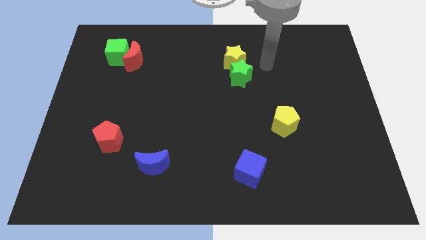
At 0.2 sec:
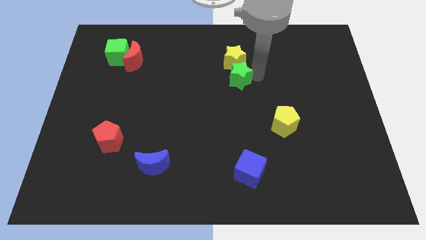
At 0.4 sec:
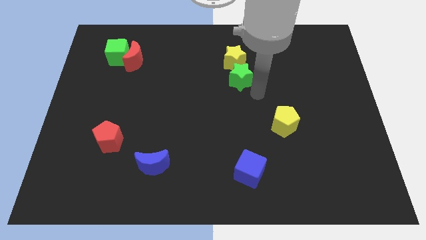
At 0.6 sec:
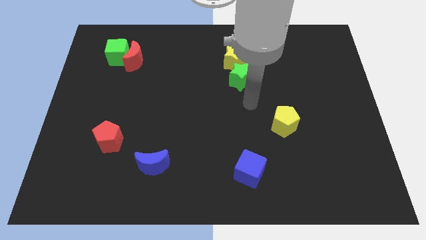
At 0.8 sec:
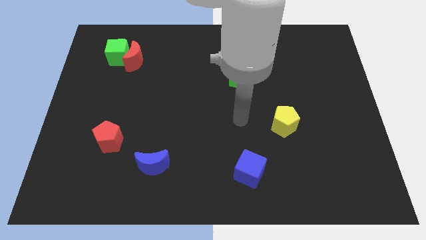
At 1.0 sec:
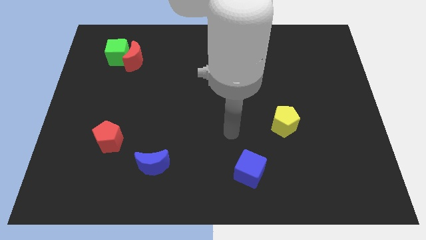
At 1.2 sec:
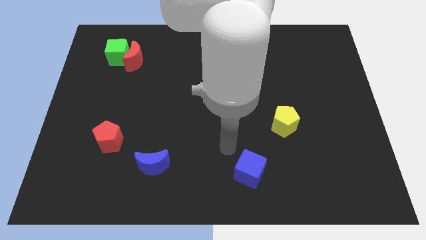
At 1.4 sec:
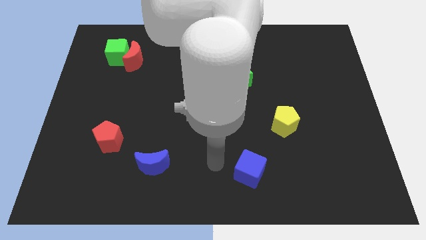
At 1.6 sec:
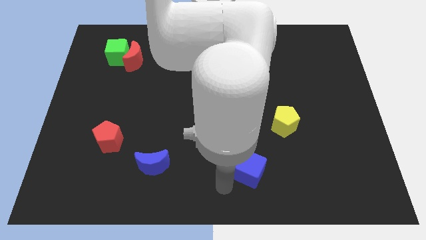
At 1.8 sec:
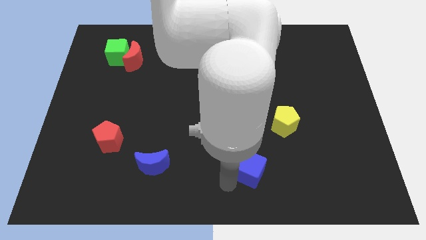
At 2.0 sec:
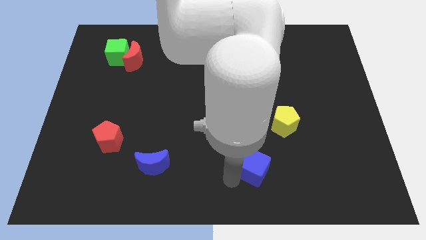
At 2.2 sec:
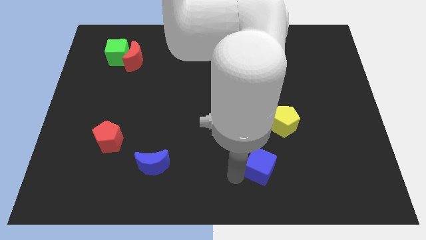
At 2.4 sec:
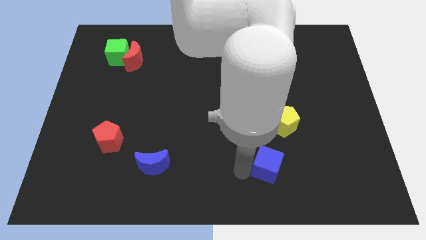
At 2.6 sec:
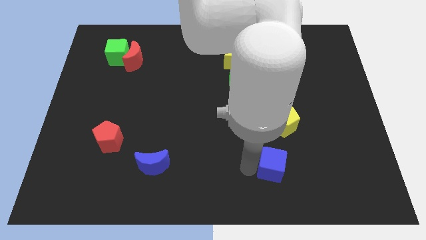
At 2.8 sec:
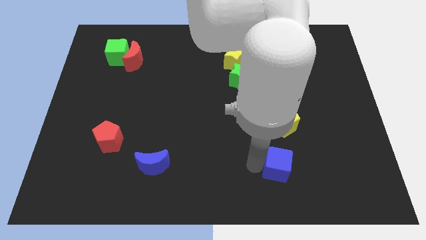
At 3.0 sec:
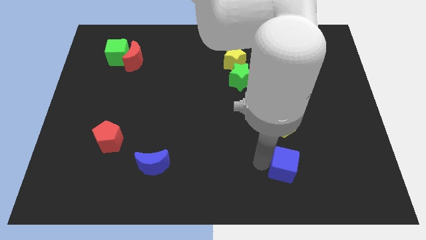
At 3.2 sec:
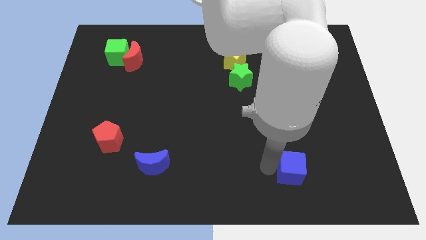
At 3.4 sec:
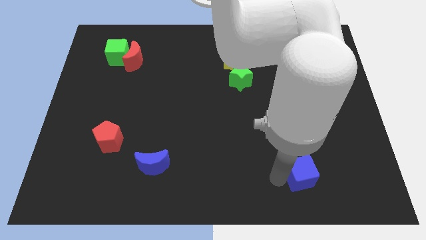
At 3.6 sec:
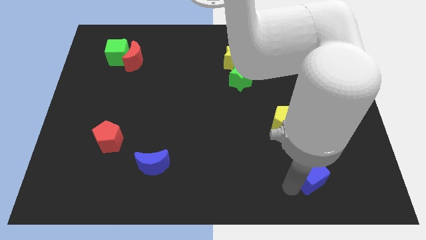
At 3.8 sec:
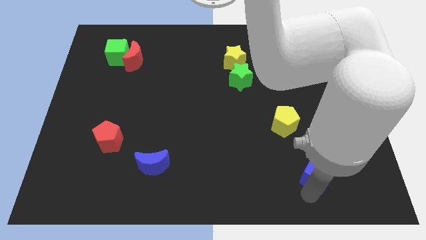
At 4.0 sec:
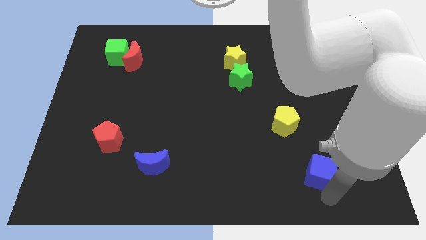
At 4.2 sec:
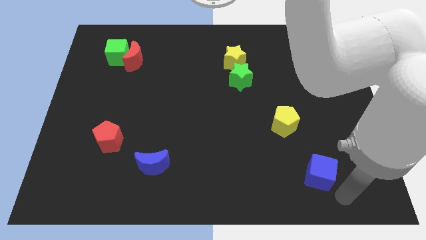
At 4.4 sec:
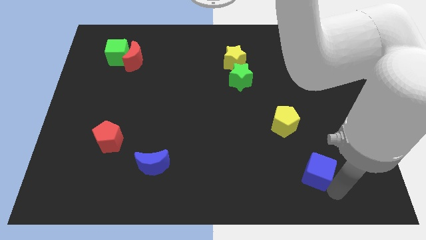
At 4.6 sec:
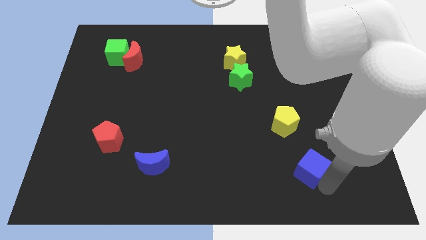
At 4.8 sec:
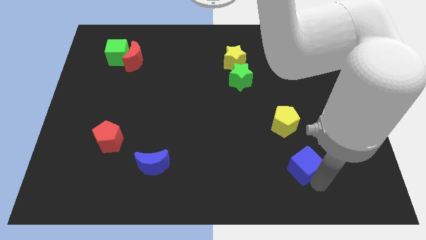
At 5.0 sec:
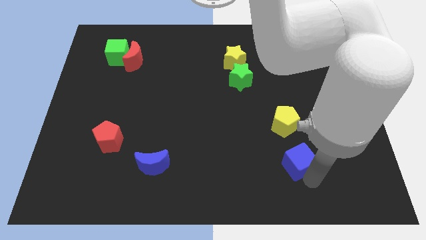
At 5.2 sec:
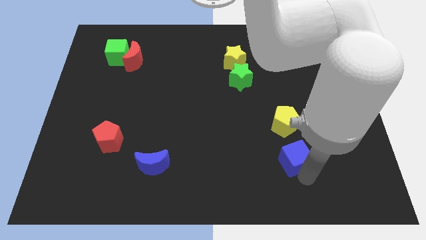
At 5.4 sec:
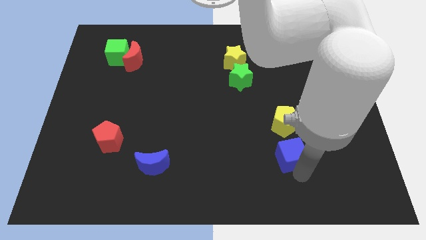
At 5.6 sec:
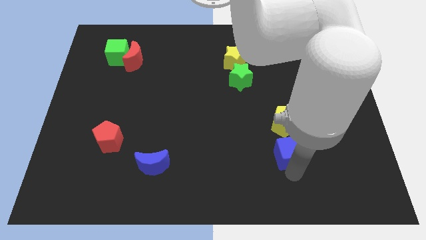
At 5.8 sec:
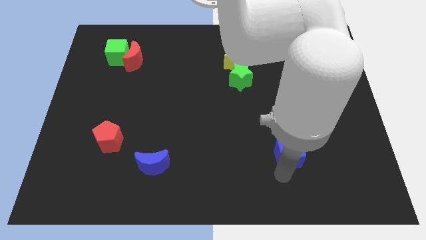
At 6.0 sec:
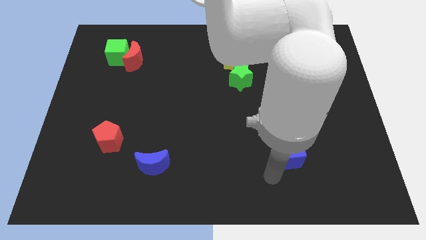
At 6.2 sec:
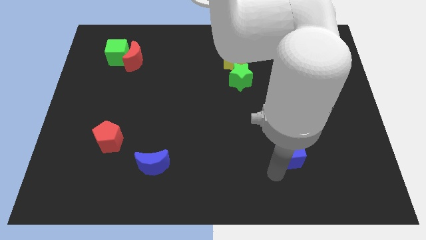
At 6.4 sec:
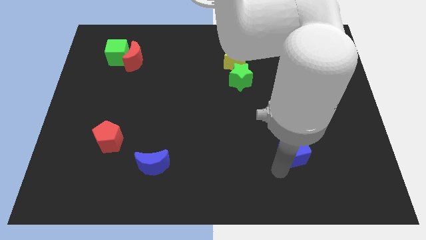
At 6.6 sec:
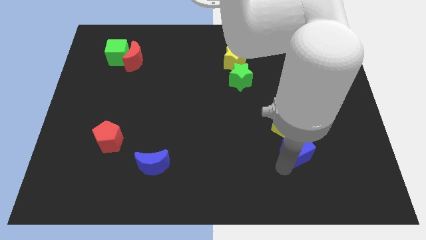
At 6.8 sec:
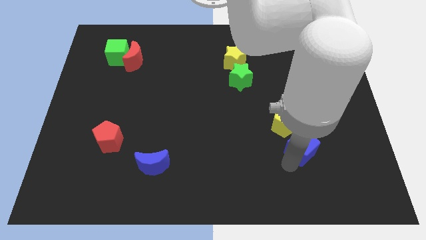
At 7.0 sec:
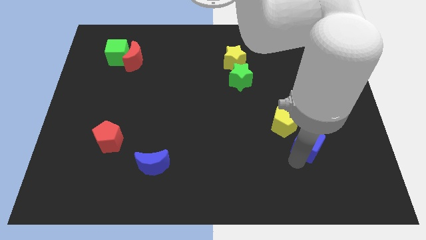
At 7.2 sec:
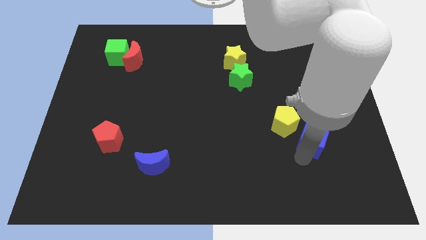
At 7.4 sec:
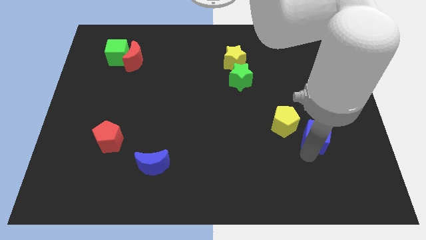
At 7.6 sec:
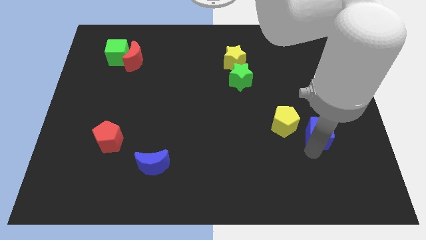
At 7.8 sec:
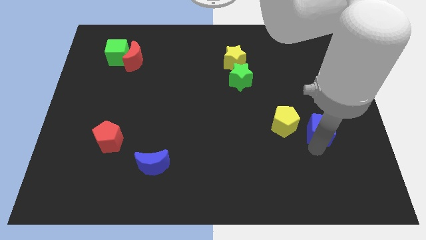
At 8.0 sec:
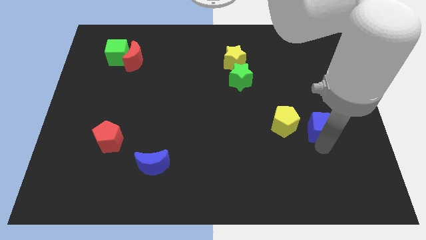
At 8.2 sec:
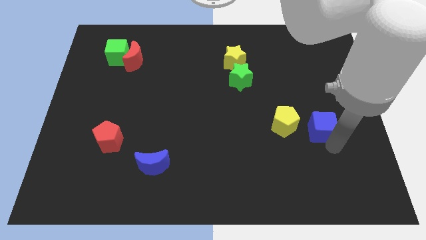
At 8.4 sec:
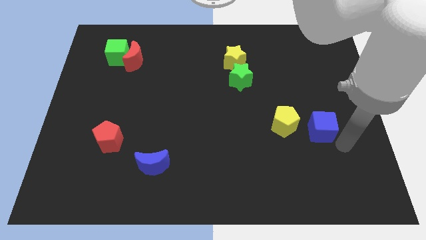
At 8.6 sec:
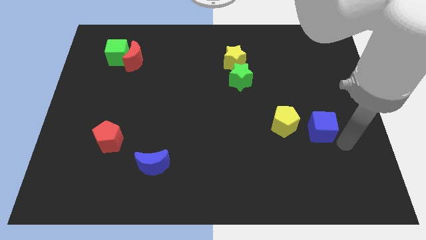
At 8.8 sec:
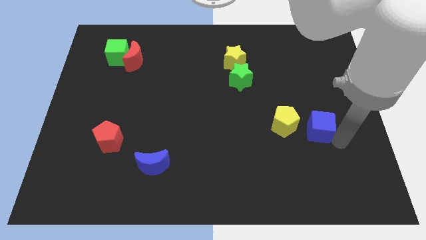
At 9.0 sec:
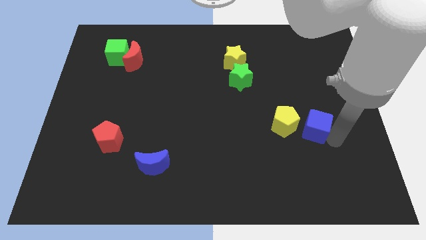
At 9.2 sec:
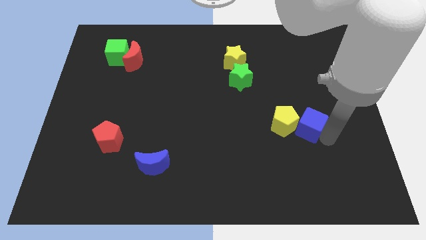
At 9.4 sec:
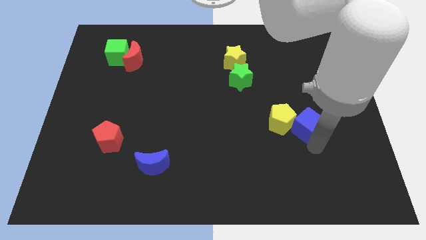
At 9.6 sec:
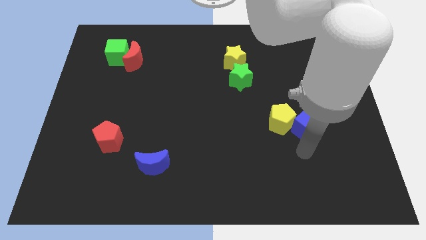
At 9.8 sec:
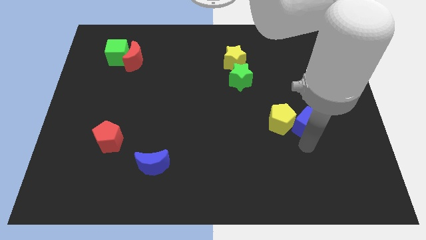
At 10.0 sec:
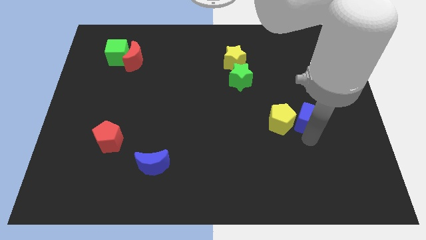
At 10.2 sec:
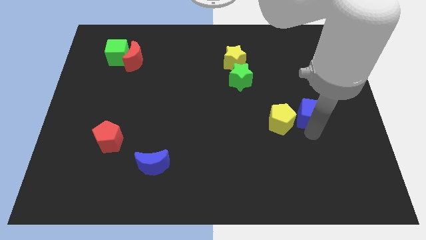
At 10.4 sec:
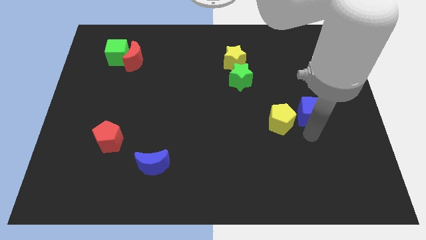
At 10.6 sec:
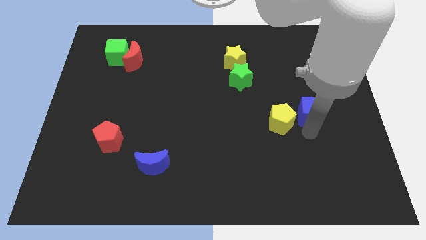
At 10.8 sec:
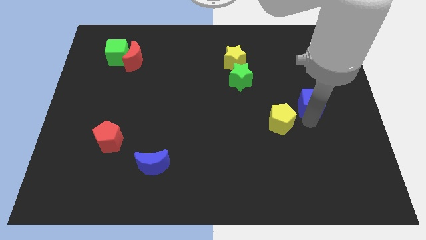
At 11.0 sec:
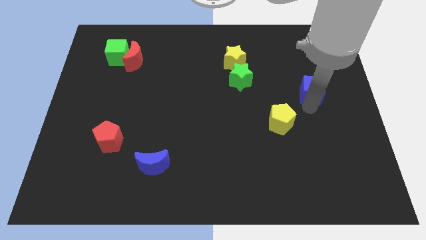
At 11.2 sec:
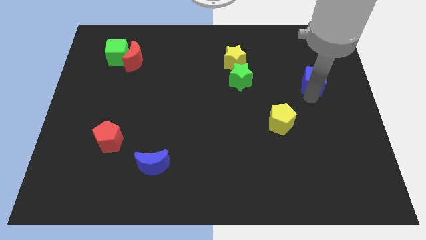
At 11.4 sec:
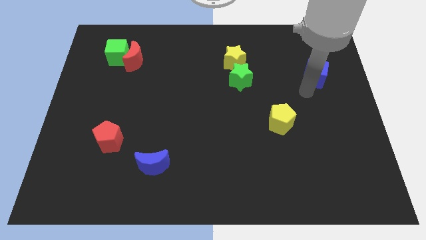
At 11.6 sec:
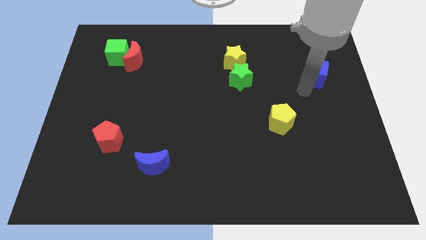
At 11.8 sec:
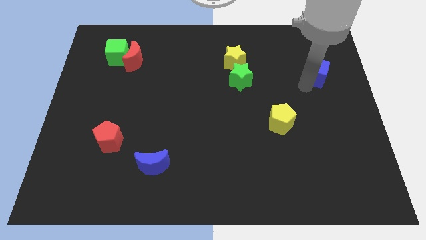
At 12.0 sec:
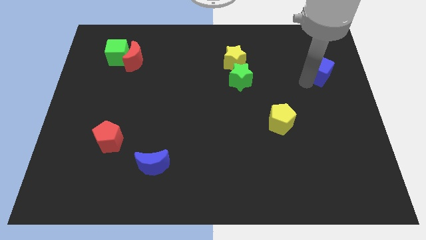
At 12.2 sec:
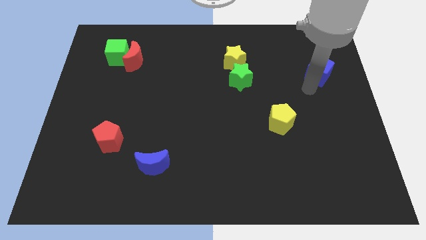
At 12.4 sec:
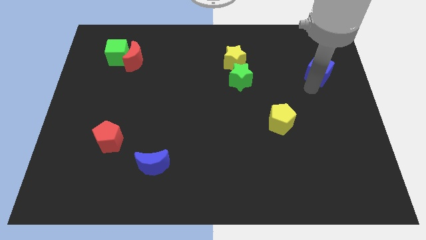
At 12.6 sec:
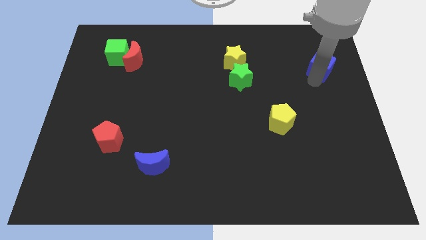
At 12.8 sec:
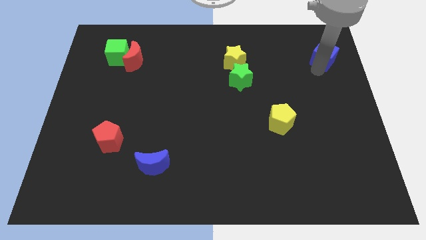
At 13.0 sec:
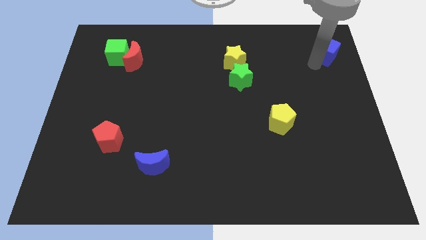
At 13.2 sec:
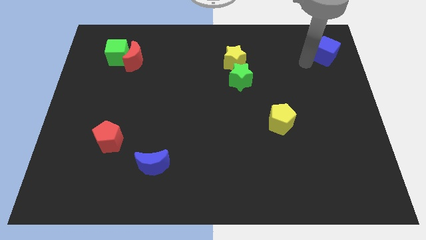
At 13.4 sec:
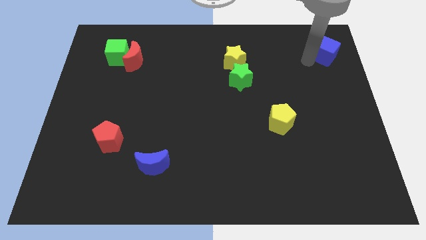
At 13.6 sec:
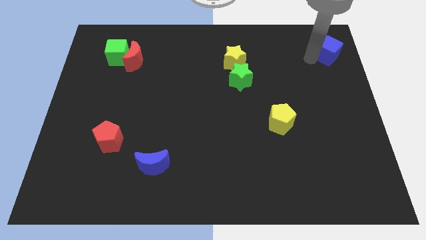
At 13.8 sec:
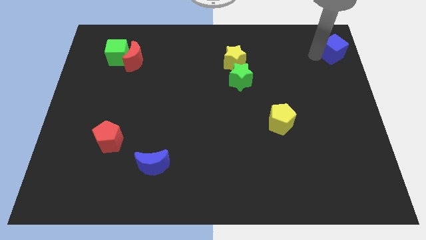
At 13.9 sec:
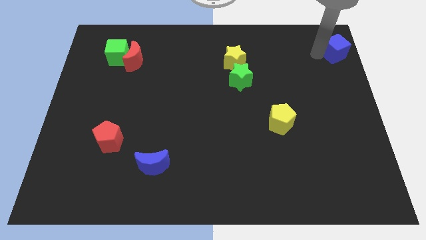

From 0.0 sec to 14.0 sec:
put the blue cube to the top right corner
